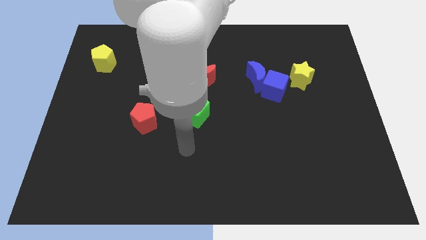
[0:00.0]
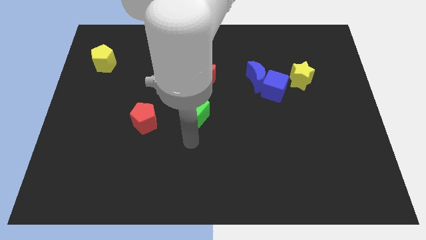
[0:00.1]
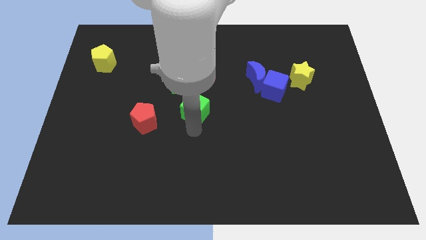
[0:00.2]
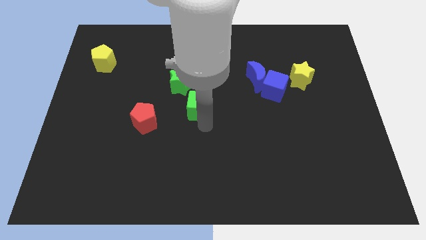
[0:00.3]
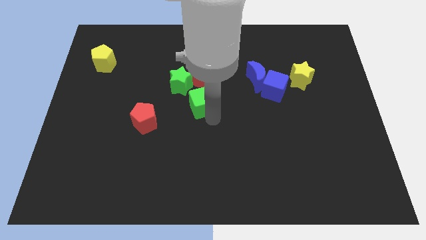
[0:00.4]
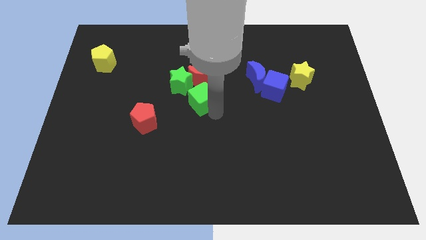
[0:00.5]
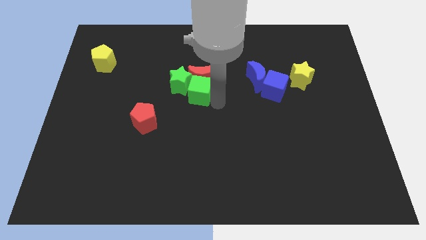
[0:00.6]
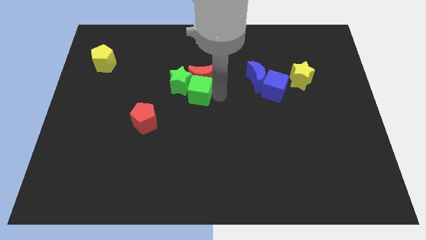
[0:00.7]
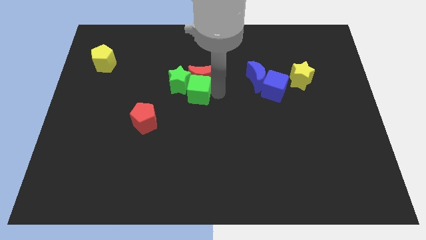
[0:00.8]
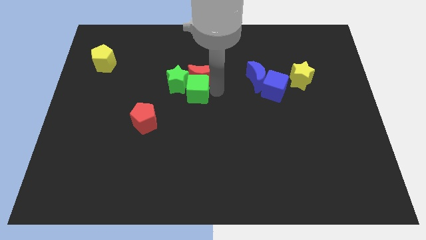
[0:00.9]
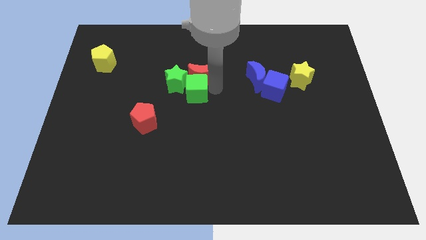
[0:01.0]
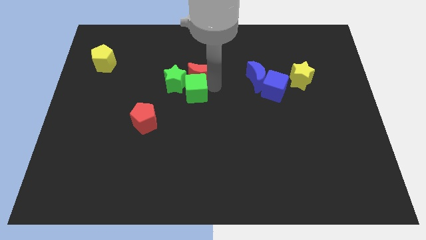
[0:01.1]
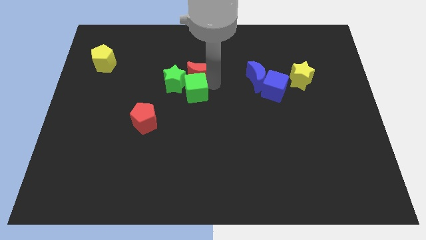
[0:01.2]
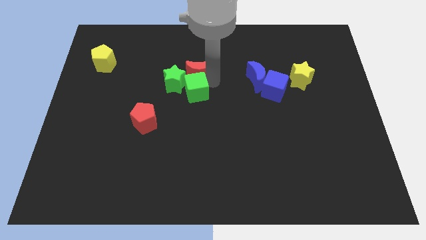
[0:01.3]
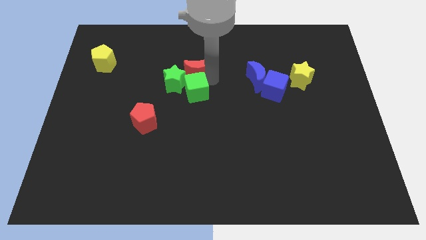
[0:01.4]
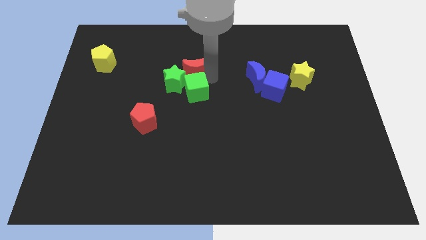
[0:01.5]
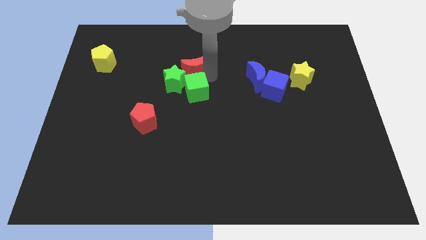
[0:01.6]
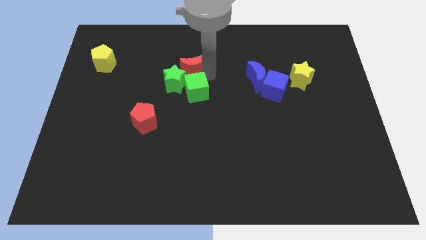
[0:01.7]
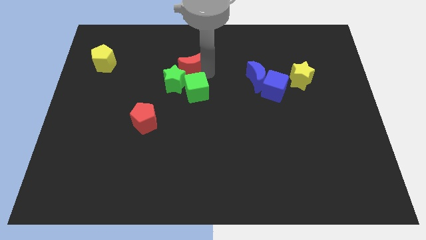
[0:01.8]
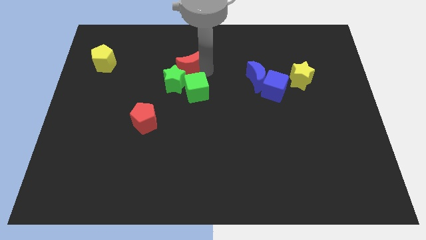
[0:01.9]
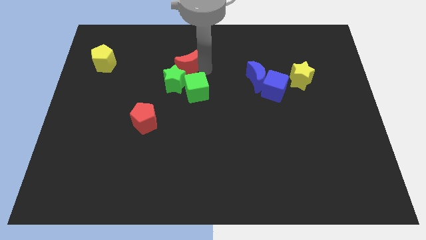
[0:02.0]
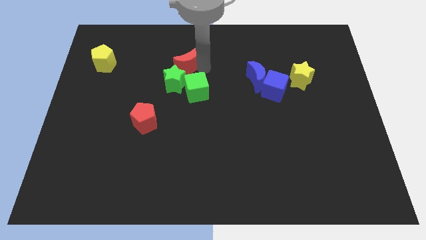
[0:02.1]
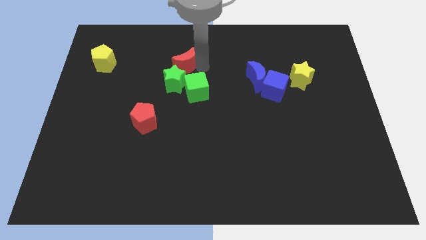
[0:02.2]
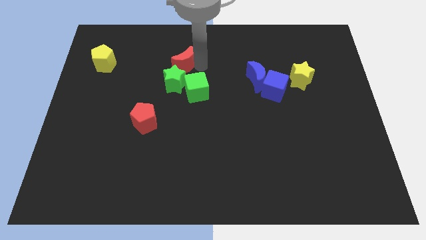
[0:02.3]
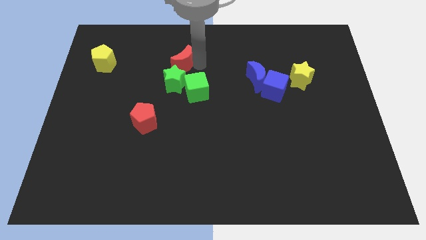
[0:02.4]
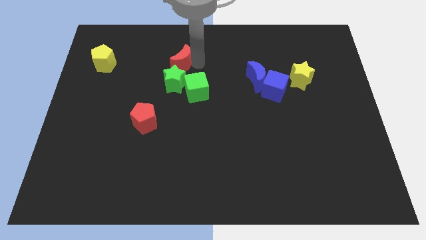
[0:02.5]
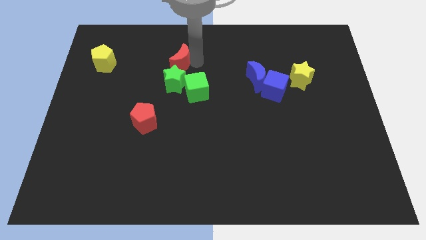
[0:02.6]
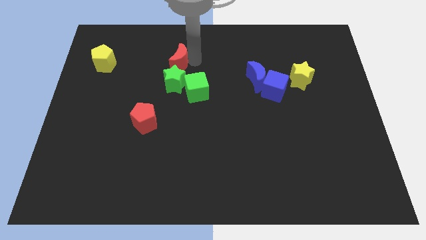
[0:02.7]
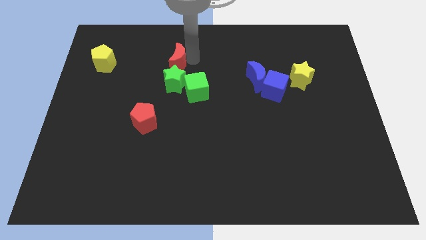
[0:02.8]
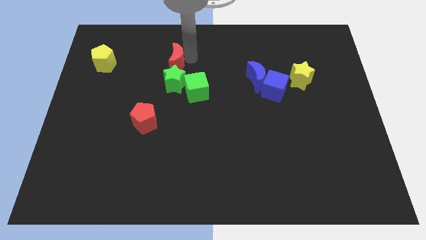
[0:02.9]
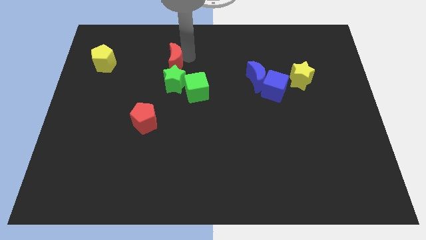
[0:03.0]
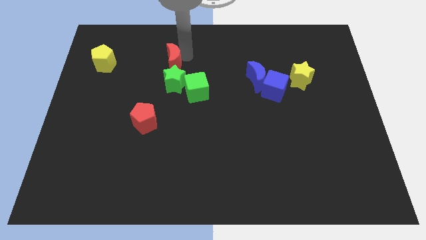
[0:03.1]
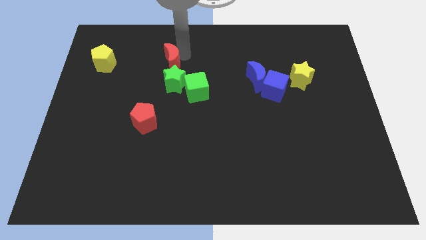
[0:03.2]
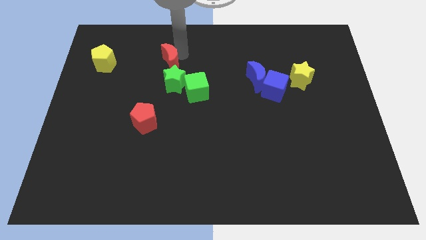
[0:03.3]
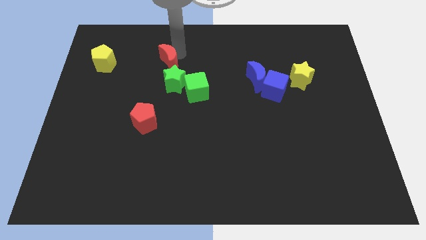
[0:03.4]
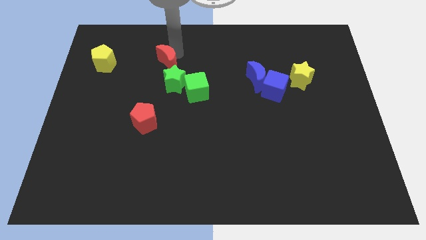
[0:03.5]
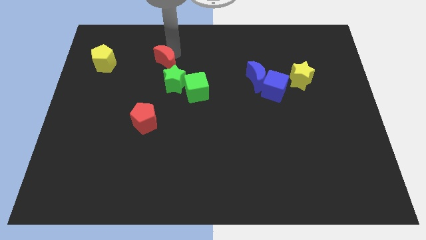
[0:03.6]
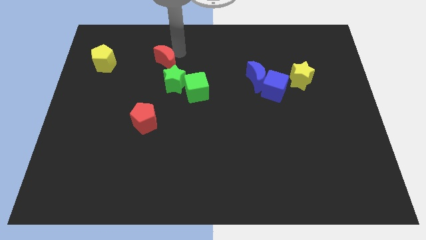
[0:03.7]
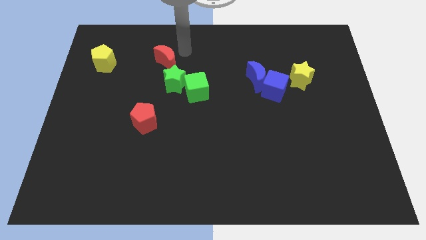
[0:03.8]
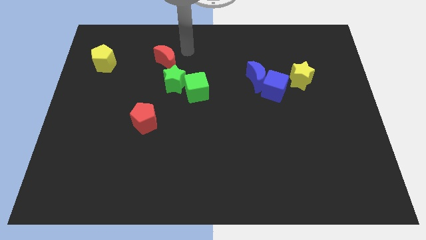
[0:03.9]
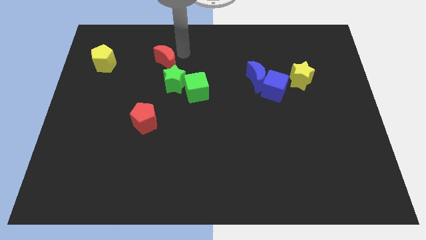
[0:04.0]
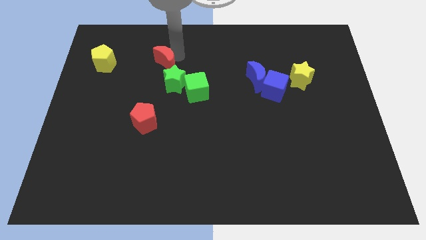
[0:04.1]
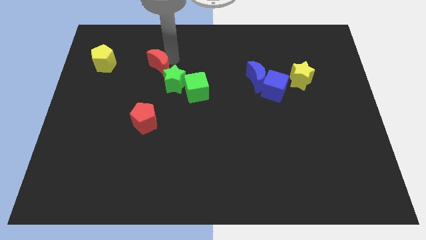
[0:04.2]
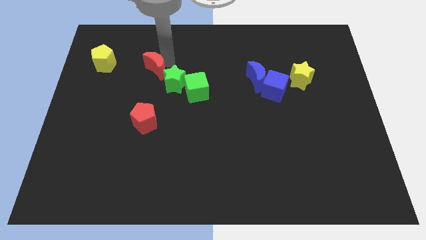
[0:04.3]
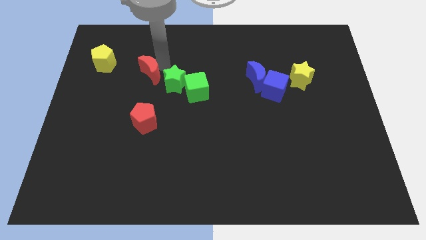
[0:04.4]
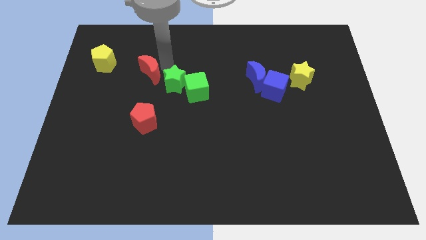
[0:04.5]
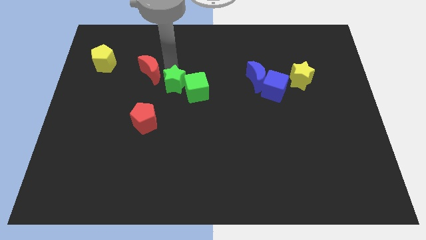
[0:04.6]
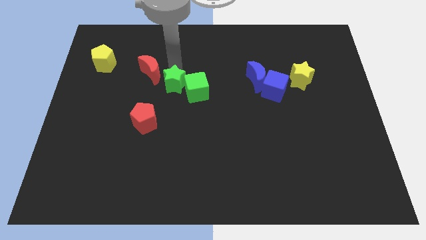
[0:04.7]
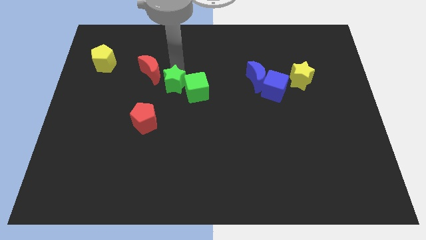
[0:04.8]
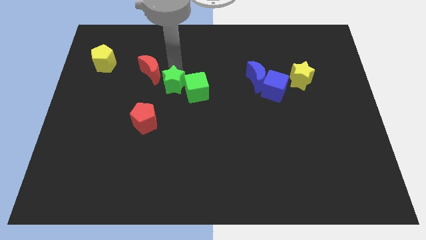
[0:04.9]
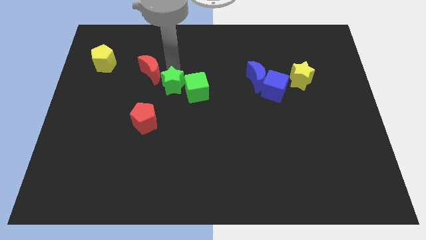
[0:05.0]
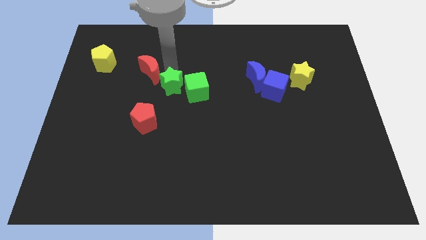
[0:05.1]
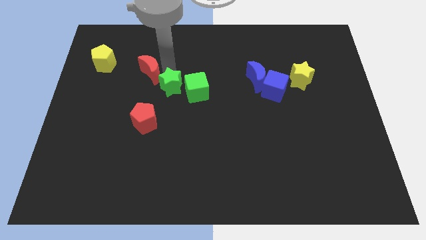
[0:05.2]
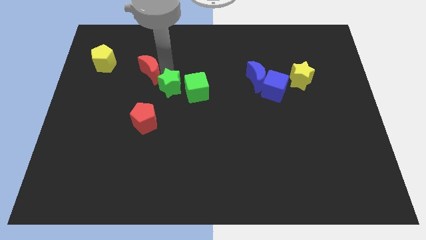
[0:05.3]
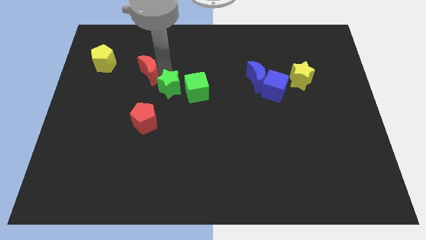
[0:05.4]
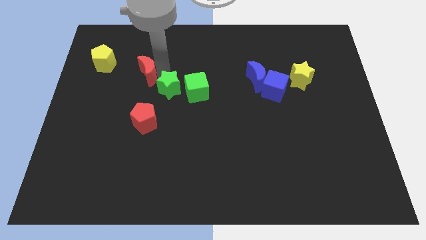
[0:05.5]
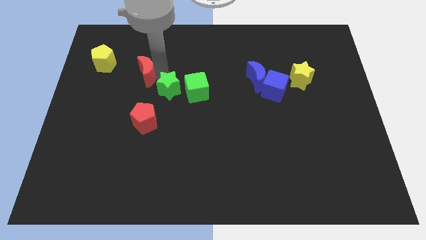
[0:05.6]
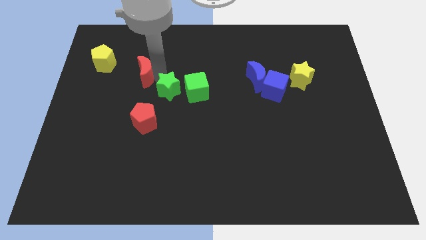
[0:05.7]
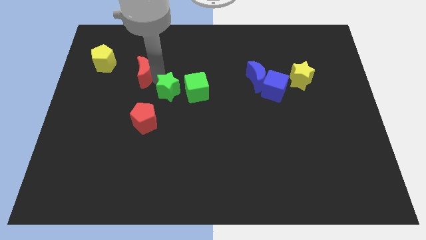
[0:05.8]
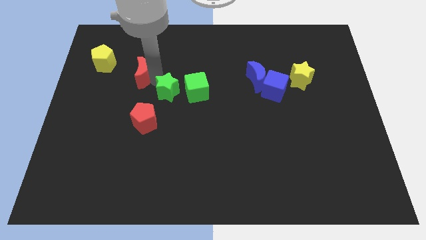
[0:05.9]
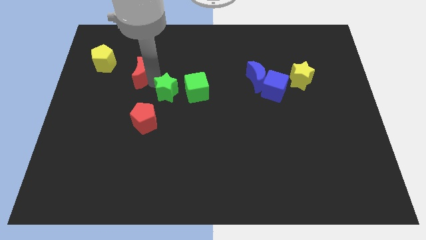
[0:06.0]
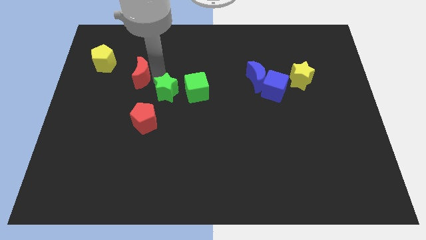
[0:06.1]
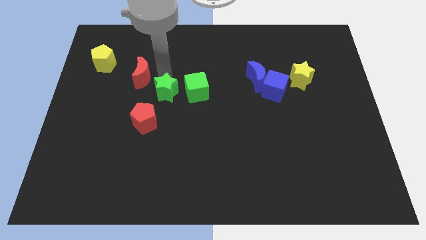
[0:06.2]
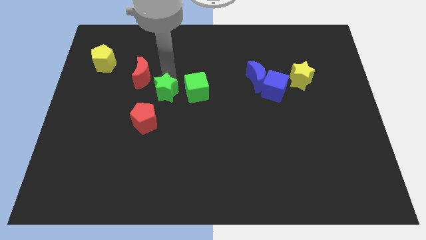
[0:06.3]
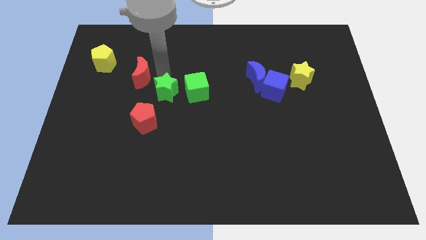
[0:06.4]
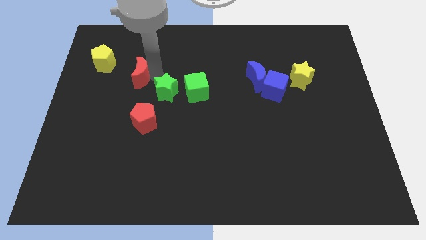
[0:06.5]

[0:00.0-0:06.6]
push the red moon to the bottom right side of the yellow pentagon
